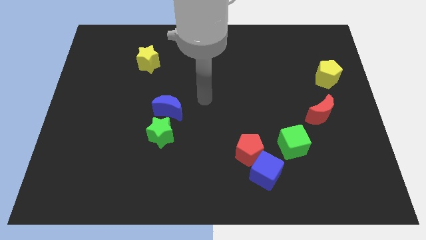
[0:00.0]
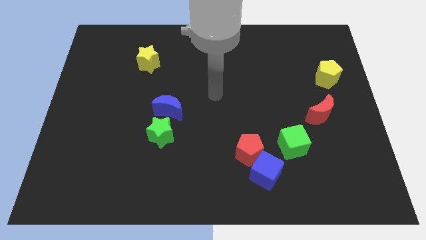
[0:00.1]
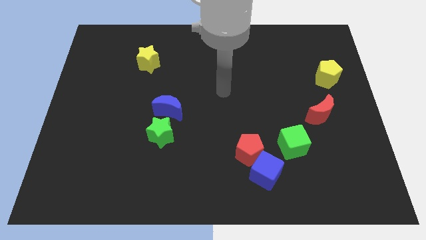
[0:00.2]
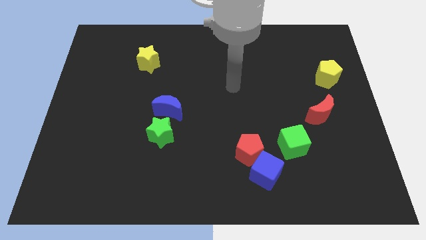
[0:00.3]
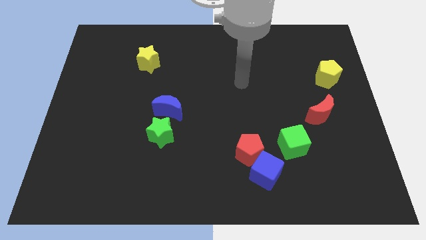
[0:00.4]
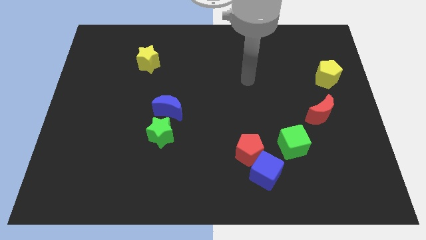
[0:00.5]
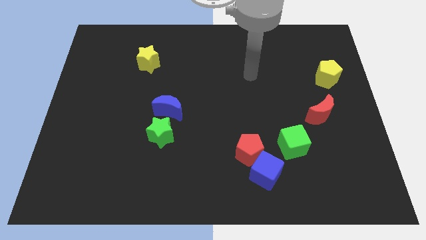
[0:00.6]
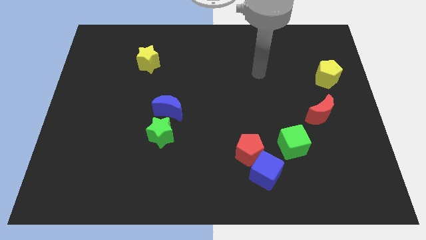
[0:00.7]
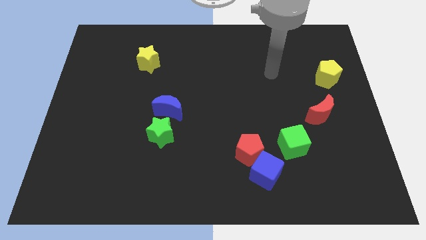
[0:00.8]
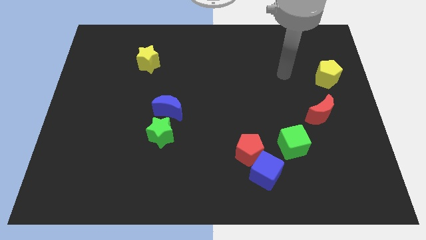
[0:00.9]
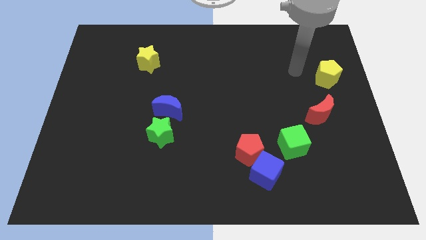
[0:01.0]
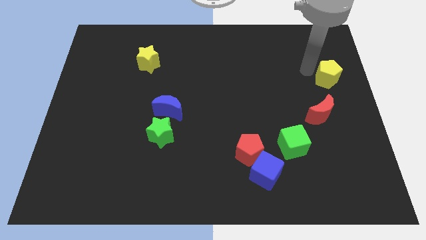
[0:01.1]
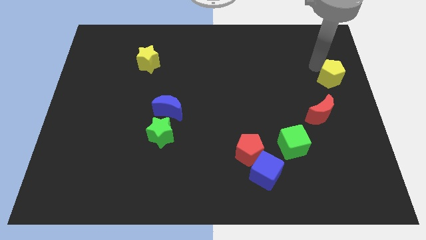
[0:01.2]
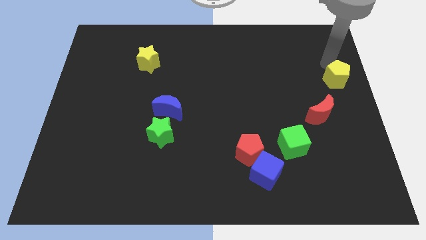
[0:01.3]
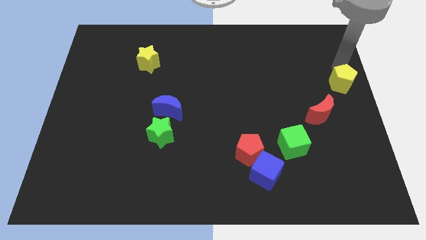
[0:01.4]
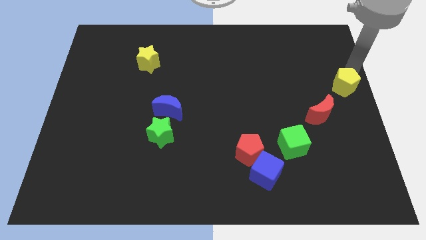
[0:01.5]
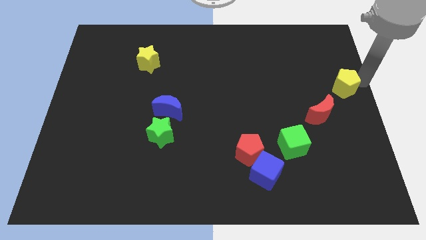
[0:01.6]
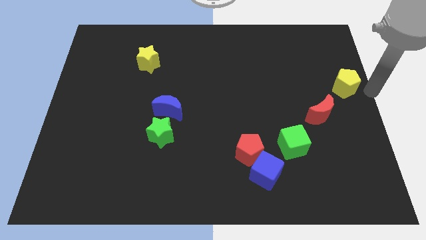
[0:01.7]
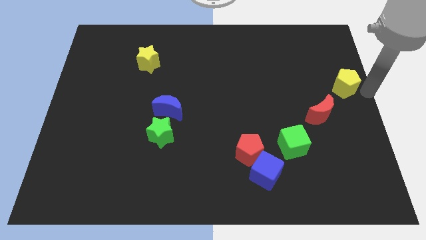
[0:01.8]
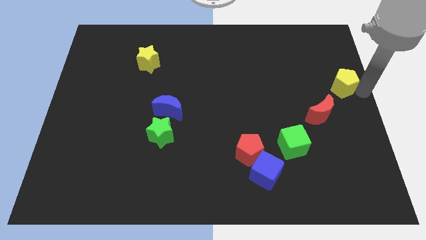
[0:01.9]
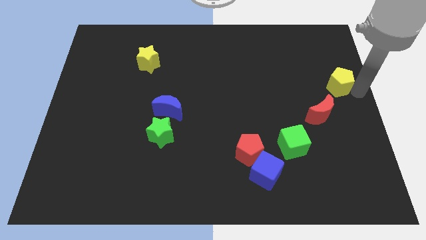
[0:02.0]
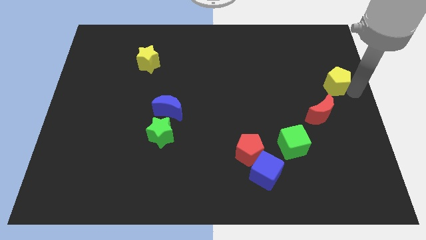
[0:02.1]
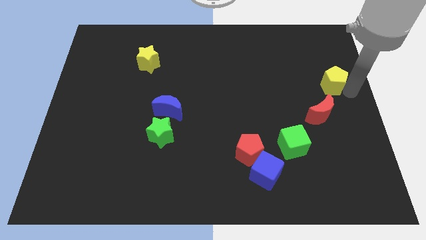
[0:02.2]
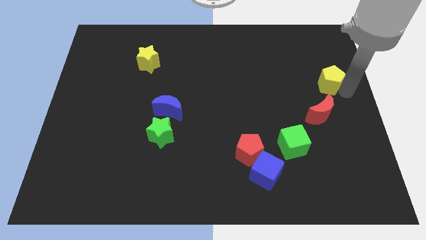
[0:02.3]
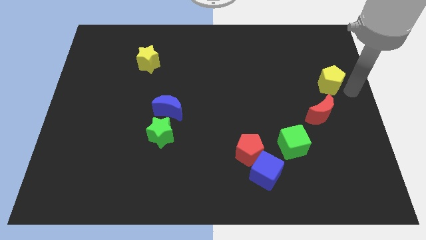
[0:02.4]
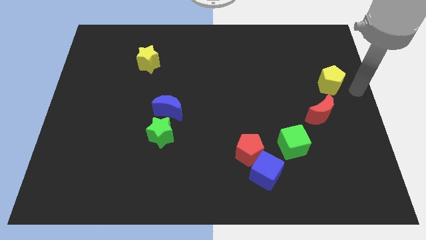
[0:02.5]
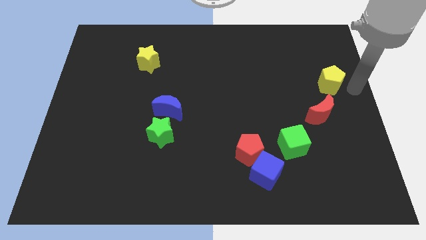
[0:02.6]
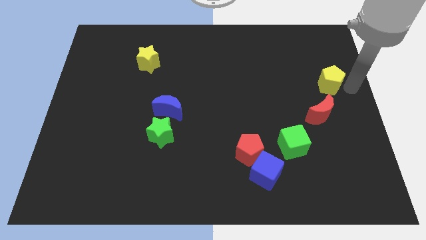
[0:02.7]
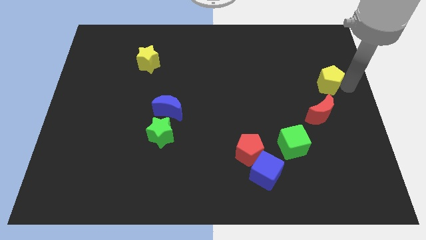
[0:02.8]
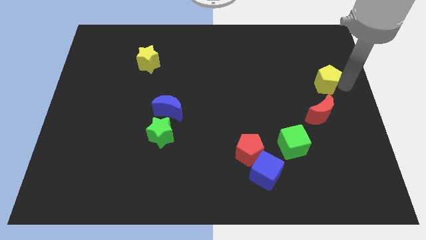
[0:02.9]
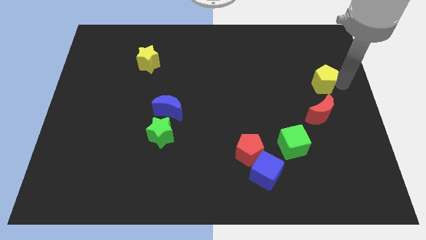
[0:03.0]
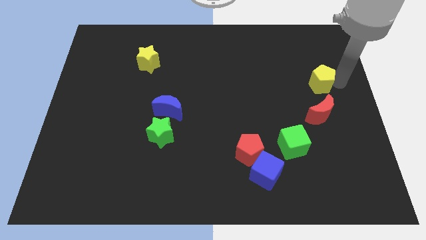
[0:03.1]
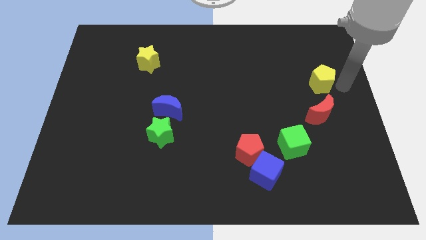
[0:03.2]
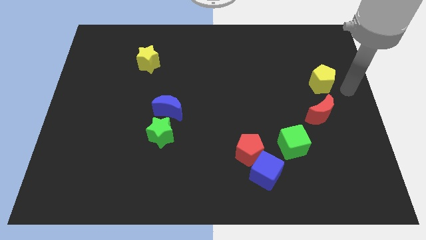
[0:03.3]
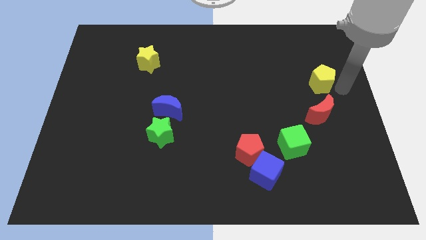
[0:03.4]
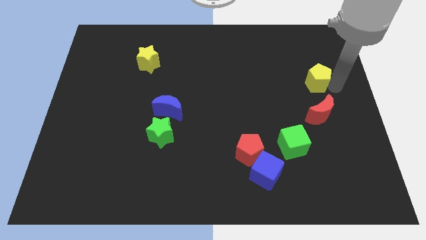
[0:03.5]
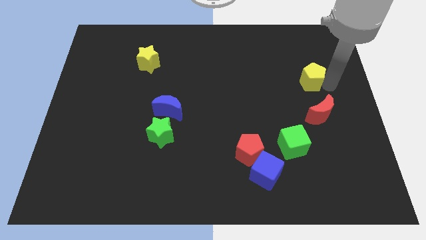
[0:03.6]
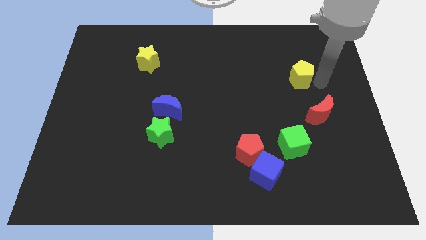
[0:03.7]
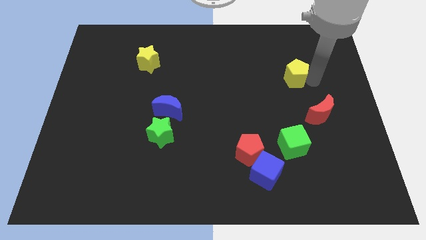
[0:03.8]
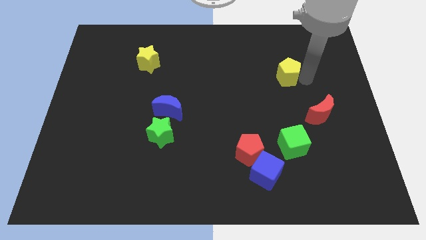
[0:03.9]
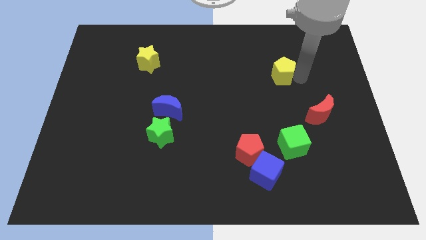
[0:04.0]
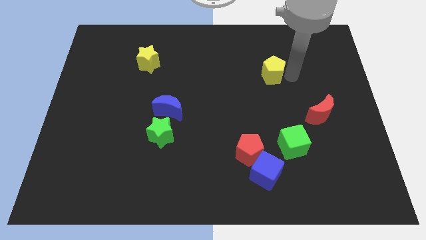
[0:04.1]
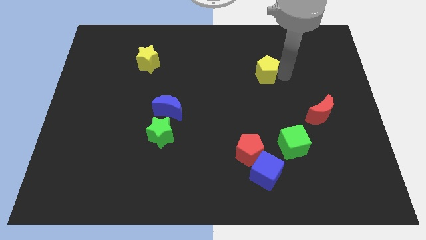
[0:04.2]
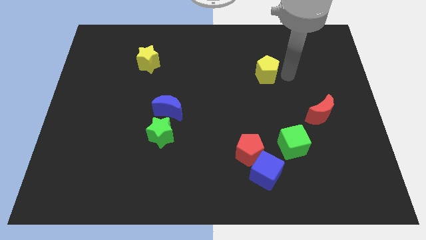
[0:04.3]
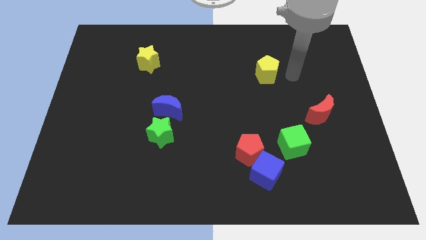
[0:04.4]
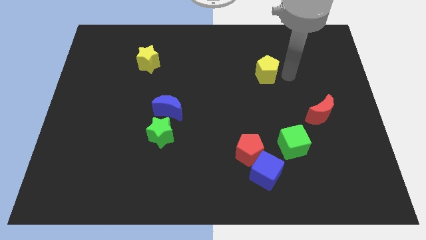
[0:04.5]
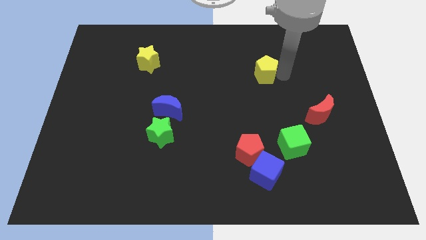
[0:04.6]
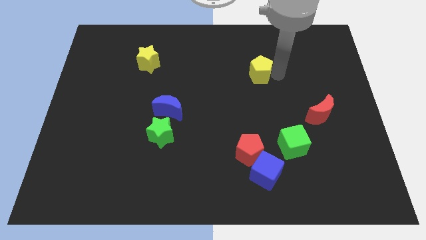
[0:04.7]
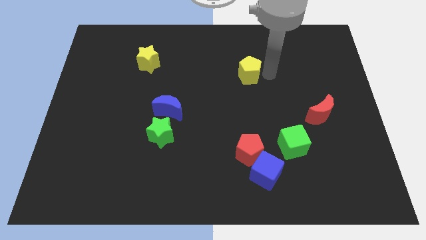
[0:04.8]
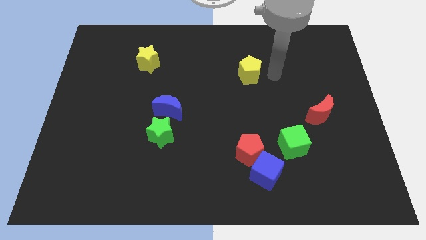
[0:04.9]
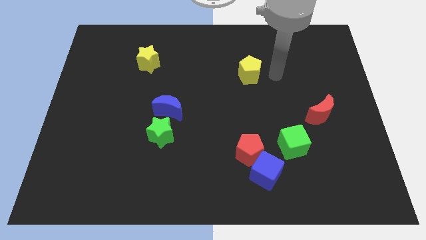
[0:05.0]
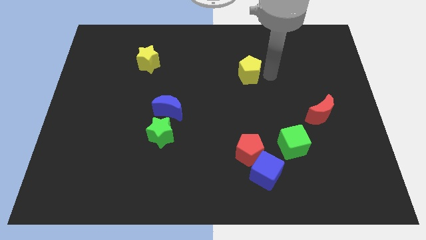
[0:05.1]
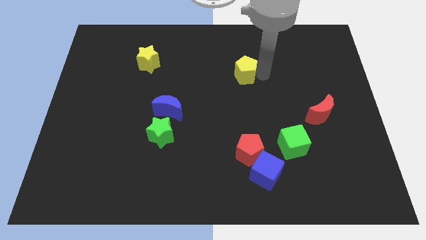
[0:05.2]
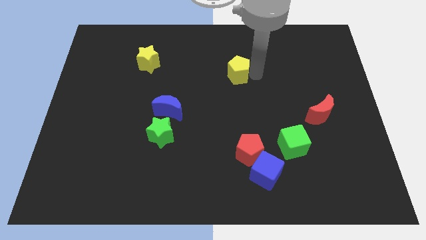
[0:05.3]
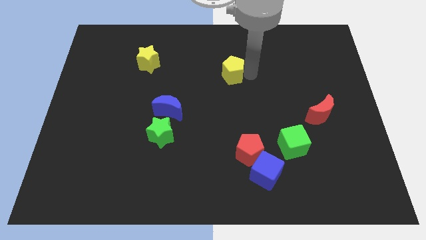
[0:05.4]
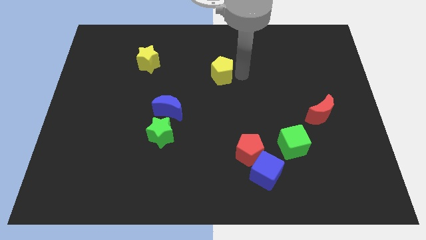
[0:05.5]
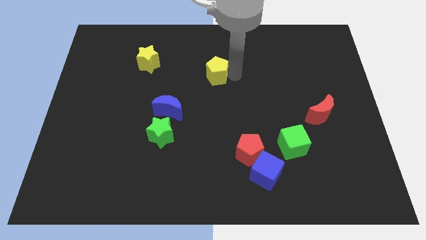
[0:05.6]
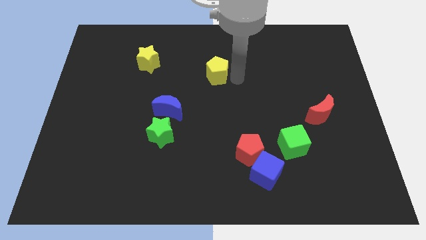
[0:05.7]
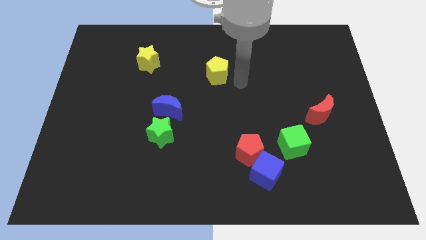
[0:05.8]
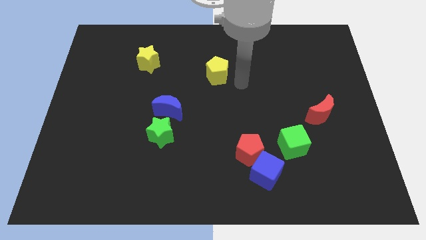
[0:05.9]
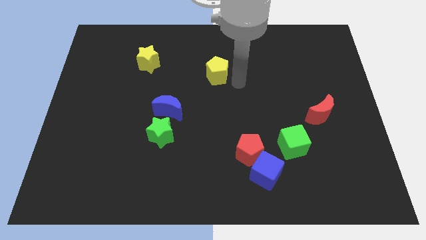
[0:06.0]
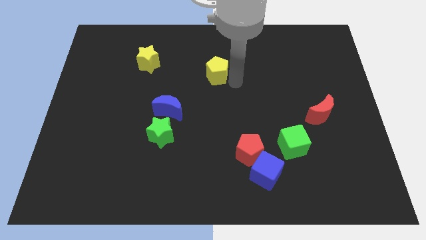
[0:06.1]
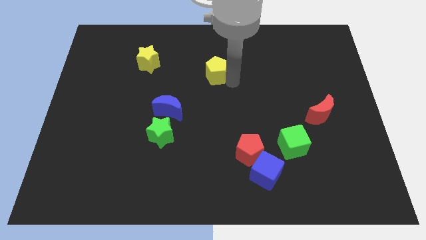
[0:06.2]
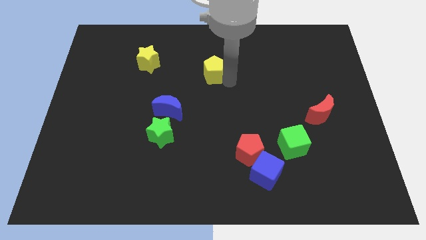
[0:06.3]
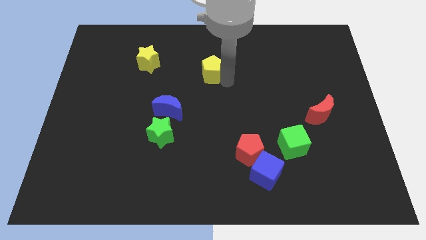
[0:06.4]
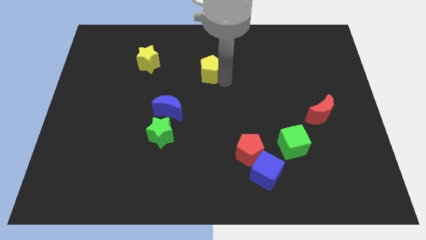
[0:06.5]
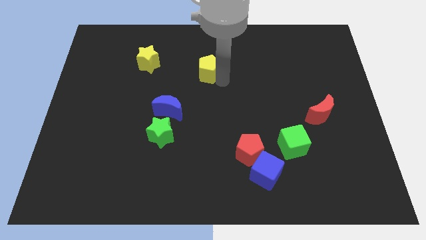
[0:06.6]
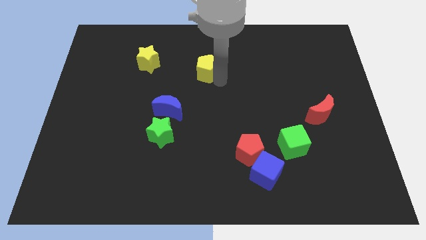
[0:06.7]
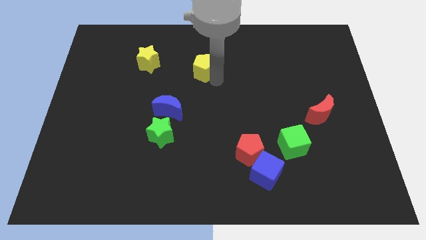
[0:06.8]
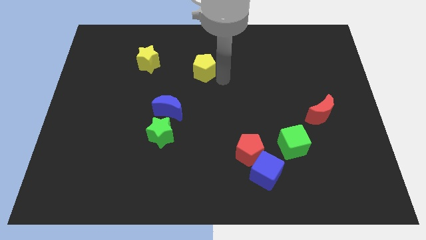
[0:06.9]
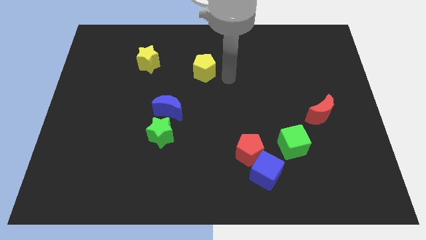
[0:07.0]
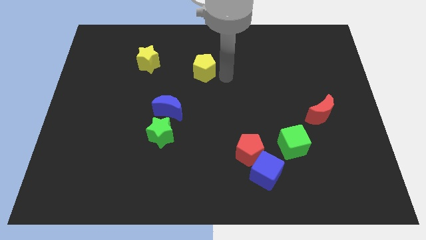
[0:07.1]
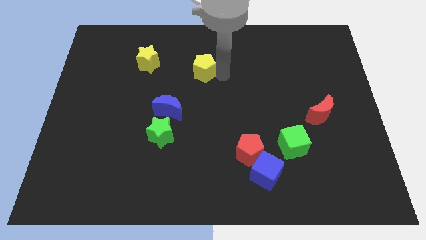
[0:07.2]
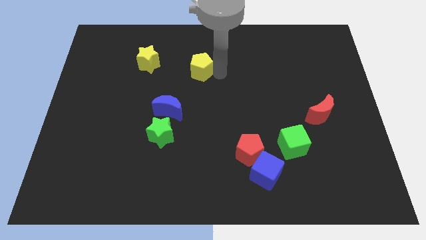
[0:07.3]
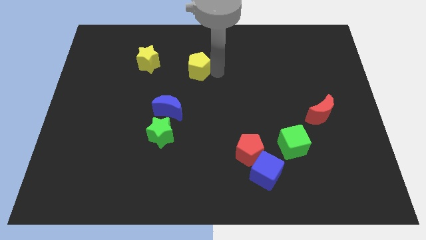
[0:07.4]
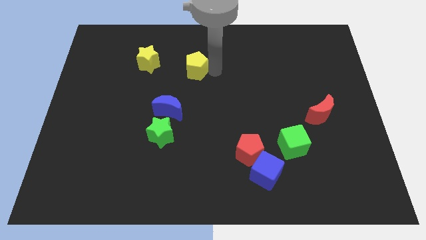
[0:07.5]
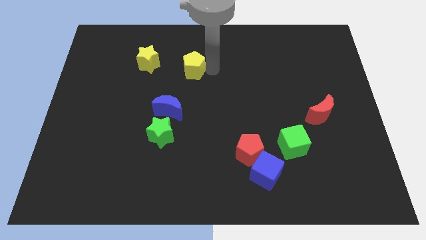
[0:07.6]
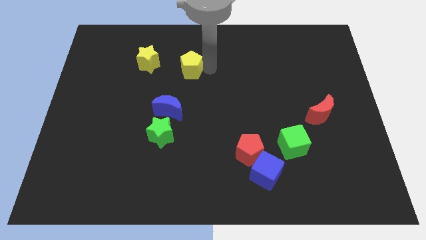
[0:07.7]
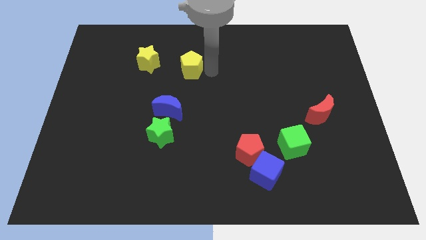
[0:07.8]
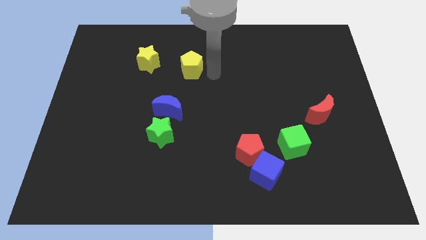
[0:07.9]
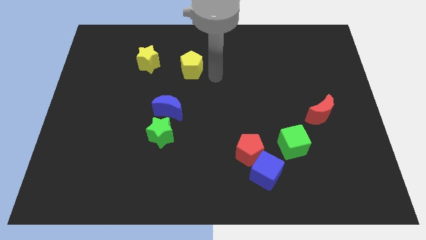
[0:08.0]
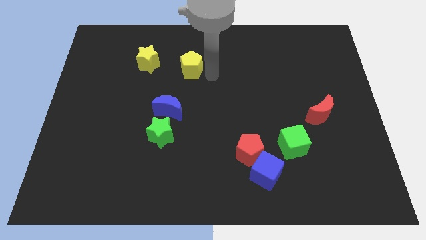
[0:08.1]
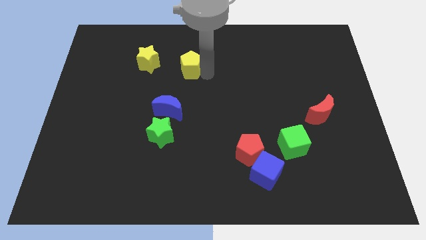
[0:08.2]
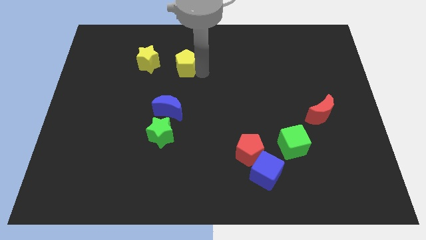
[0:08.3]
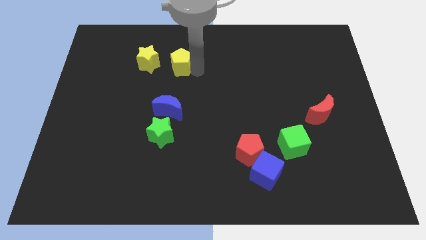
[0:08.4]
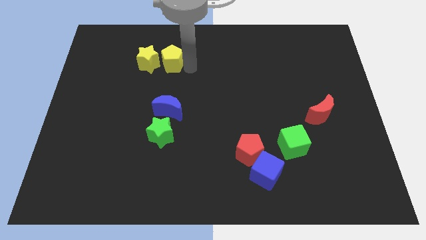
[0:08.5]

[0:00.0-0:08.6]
move the yellow pentagon towards the yellow star
